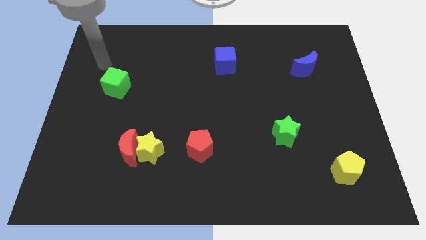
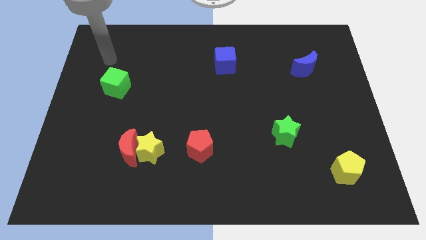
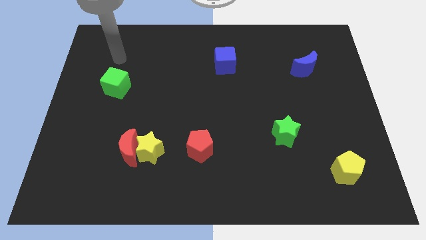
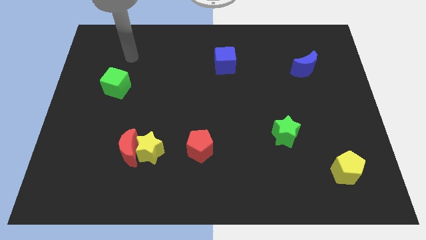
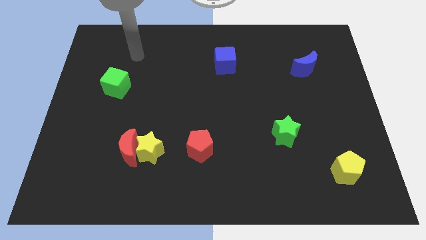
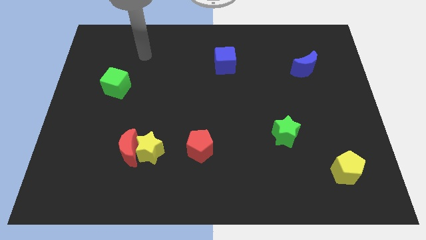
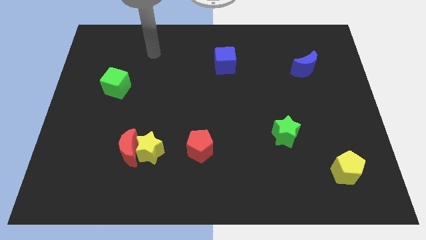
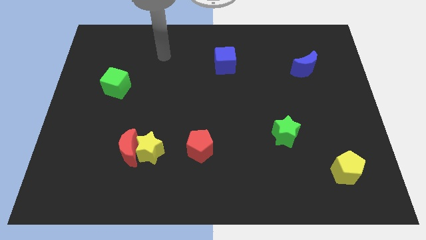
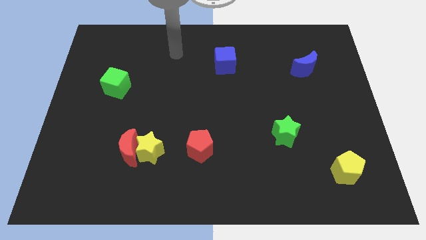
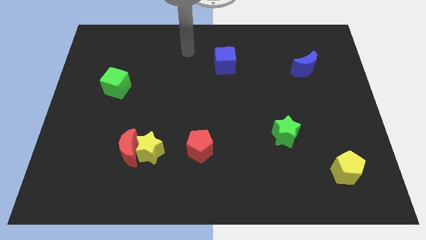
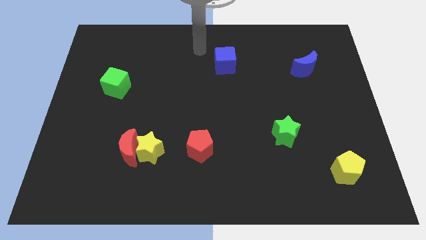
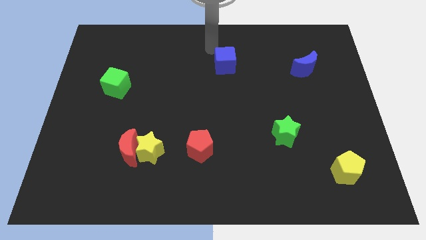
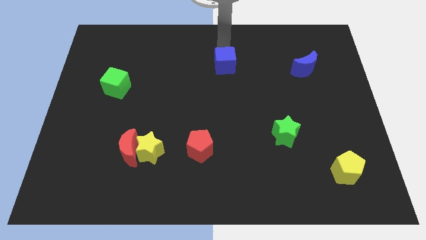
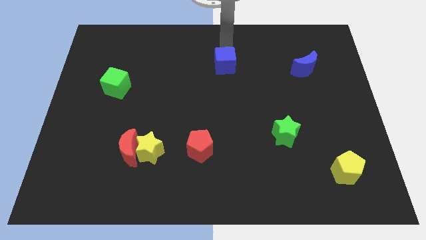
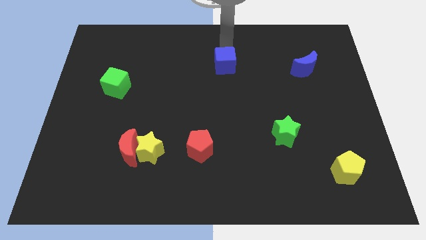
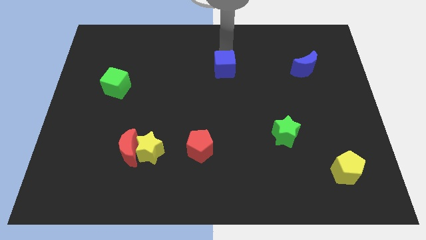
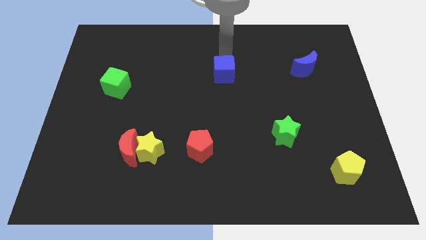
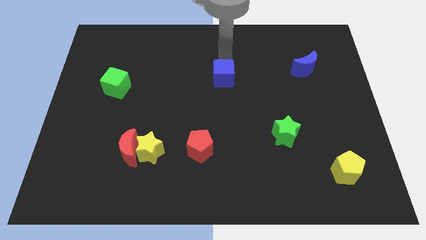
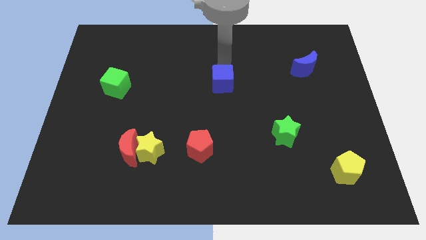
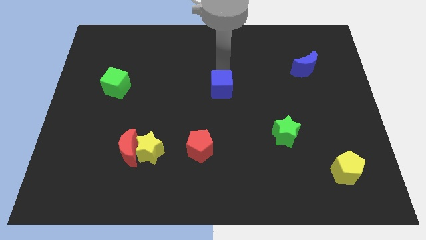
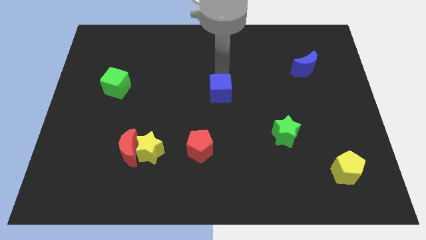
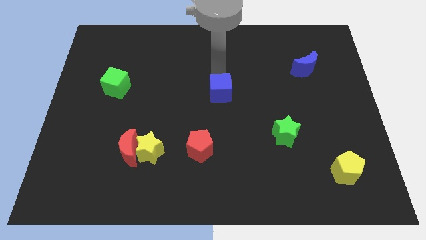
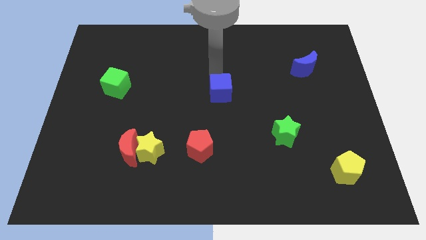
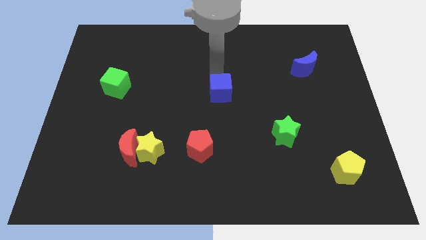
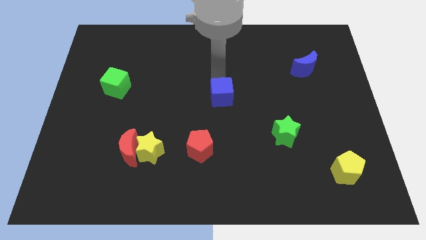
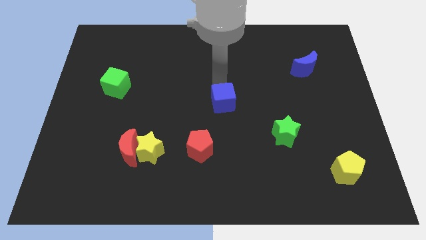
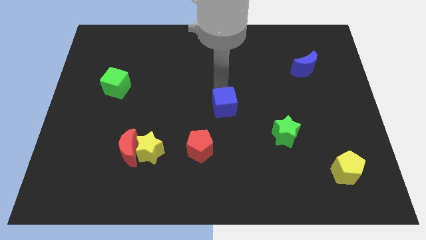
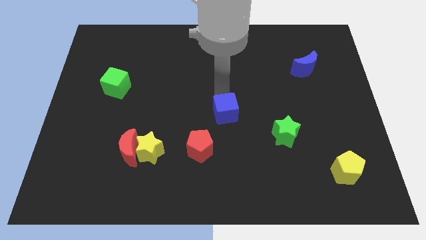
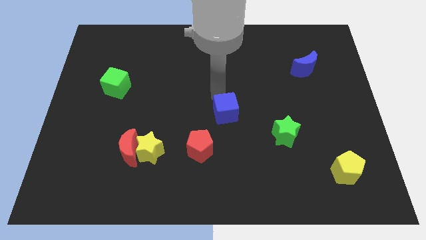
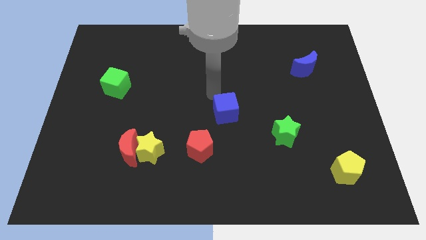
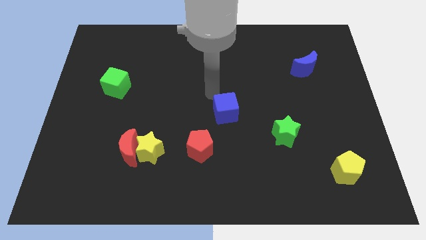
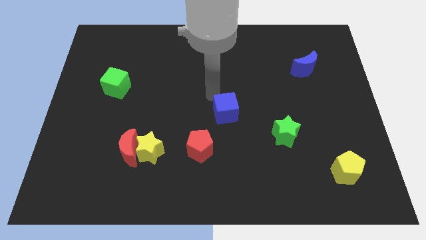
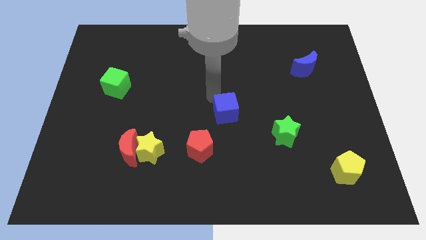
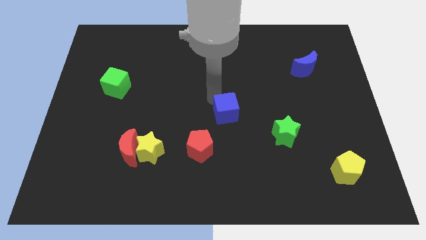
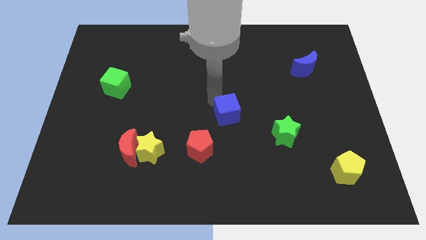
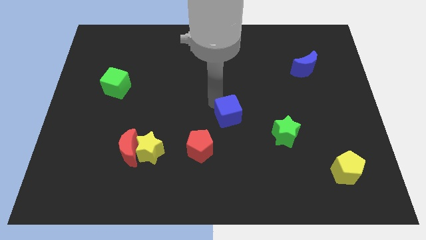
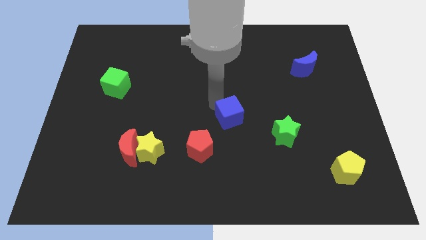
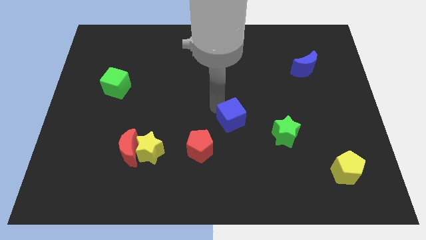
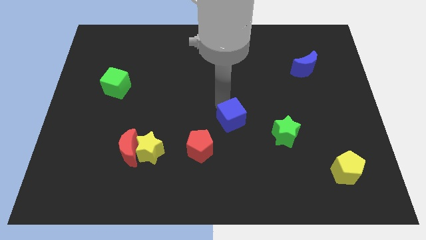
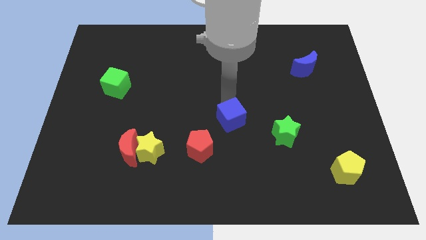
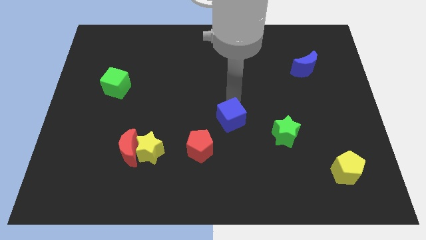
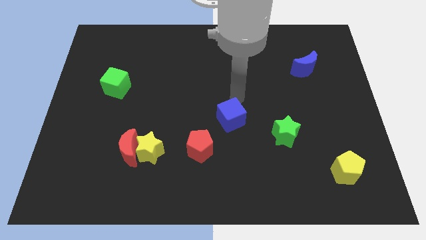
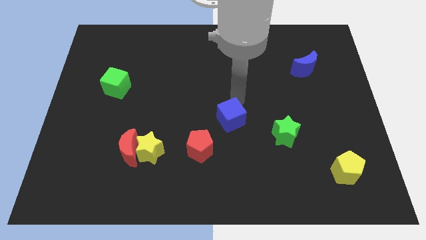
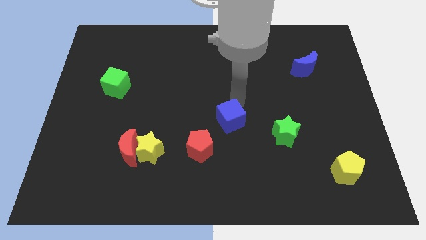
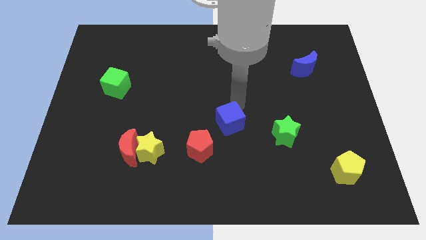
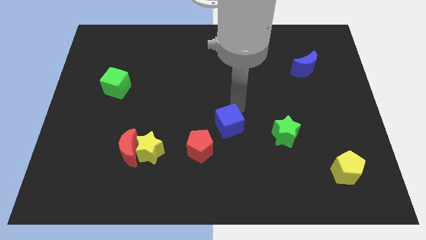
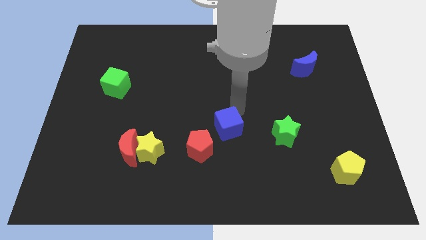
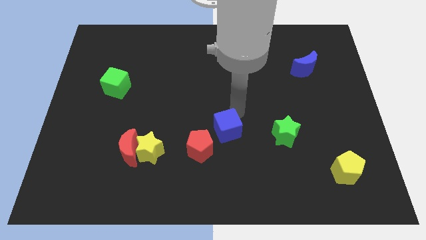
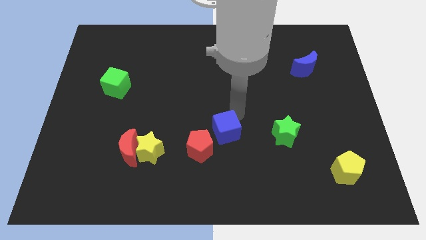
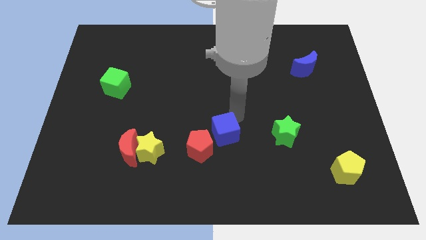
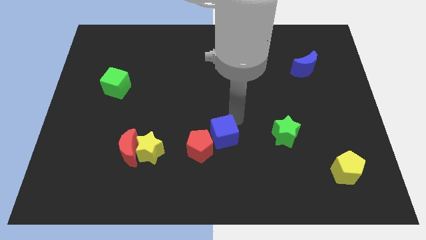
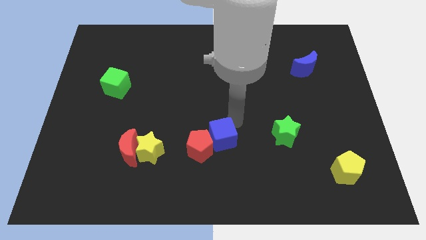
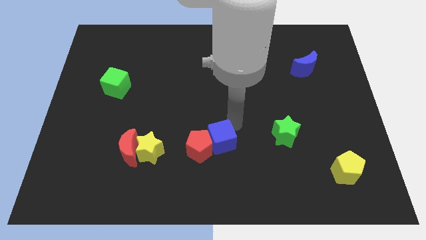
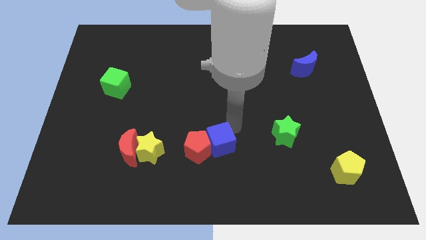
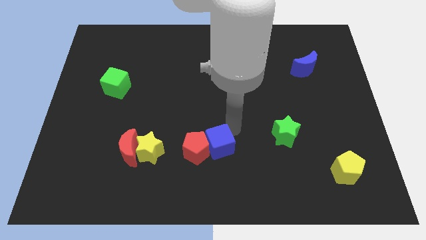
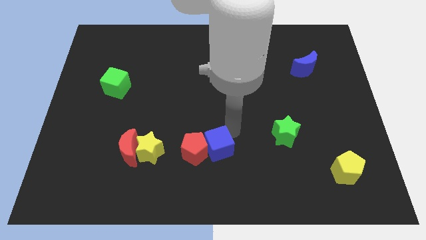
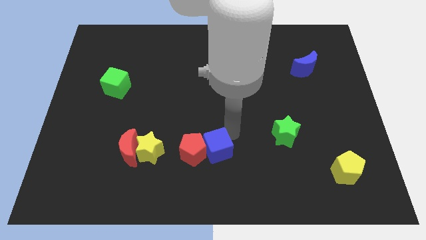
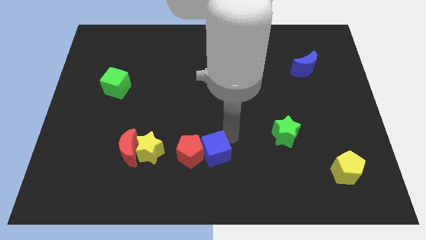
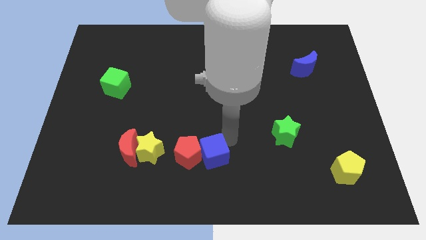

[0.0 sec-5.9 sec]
push the blue cube to the bottom
